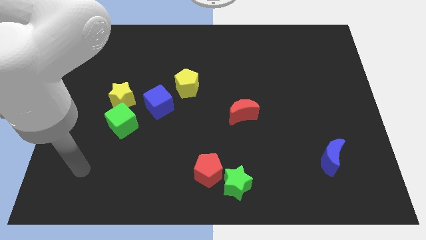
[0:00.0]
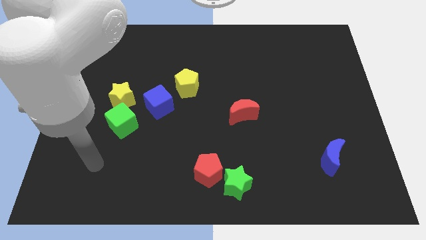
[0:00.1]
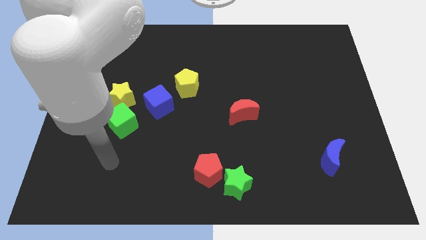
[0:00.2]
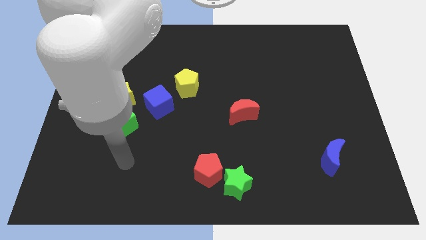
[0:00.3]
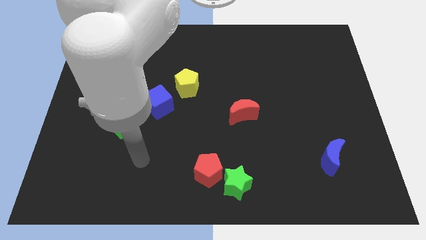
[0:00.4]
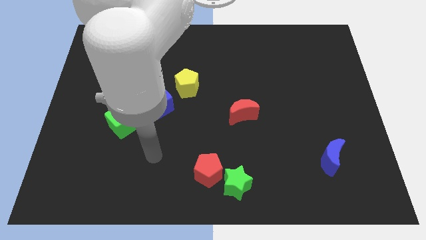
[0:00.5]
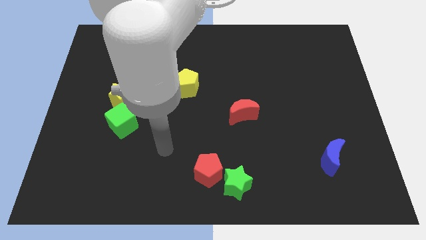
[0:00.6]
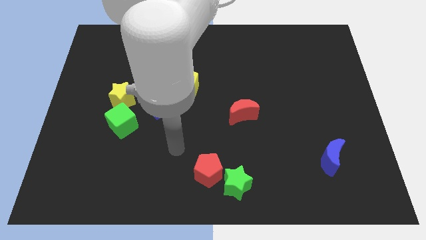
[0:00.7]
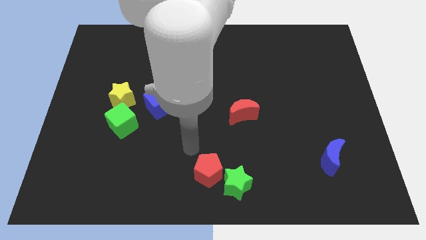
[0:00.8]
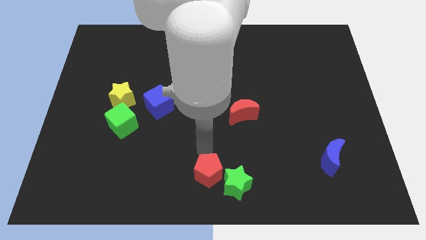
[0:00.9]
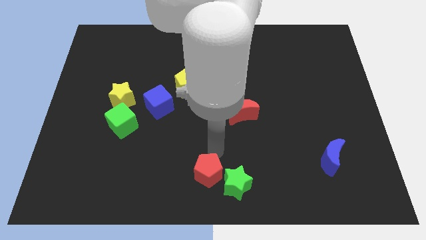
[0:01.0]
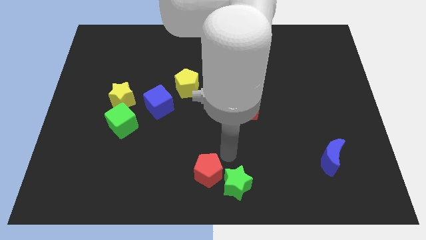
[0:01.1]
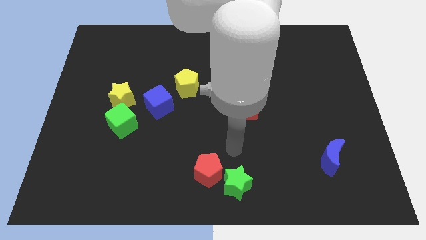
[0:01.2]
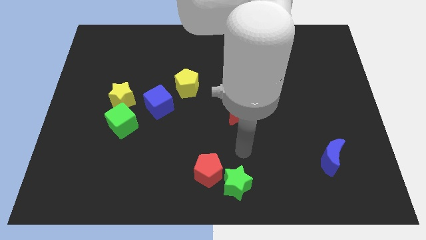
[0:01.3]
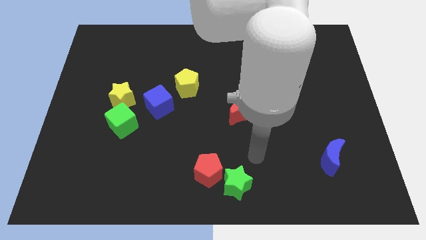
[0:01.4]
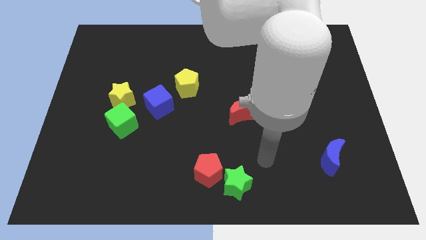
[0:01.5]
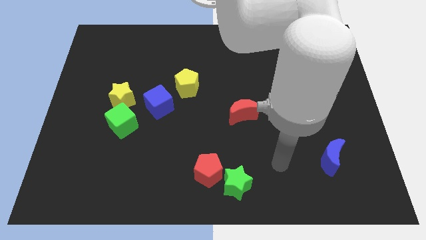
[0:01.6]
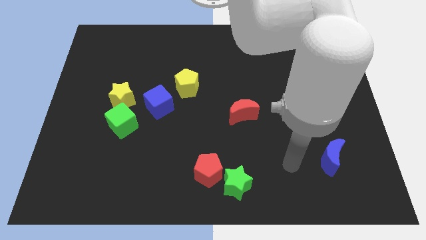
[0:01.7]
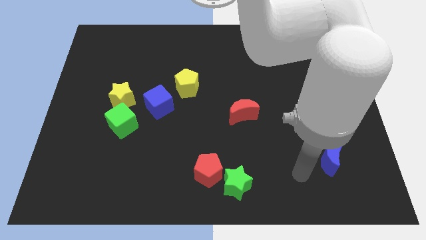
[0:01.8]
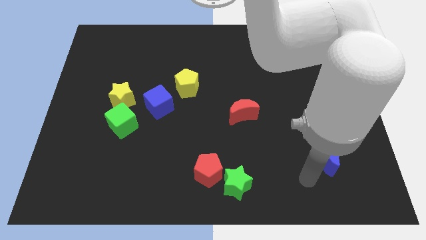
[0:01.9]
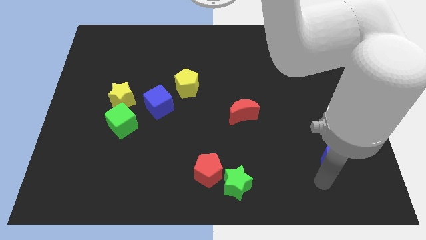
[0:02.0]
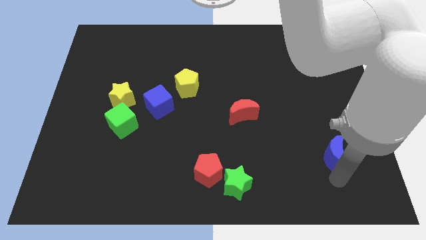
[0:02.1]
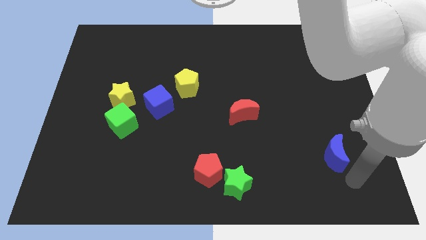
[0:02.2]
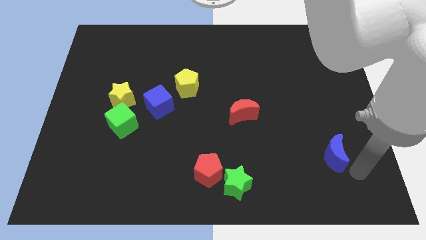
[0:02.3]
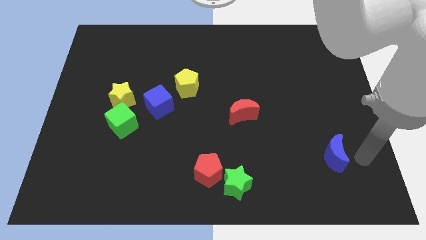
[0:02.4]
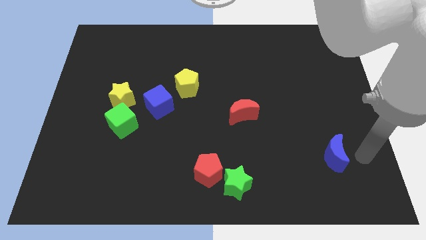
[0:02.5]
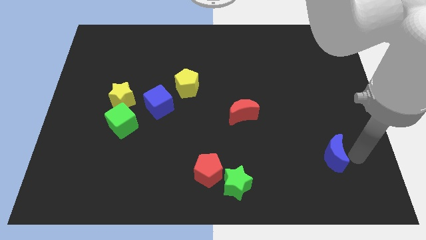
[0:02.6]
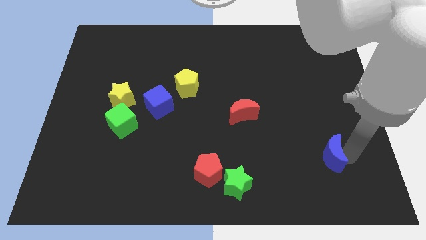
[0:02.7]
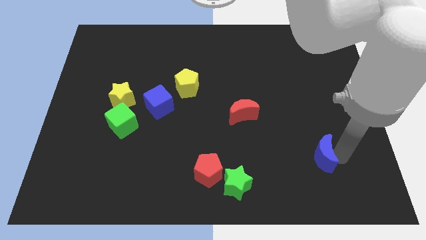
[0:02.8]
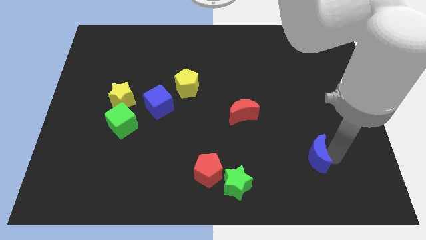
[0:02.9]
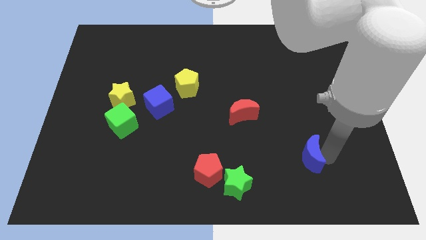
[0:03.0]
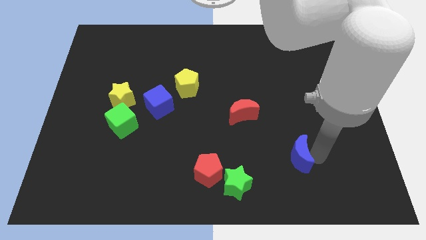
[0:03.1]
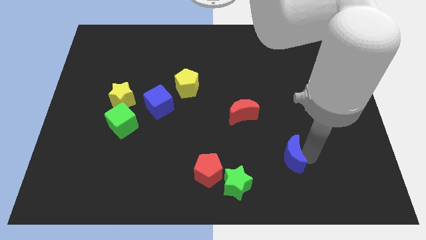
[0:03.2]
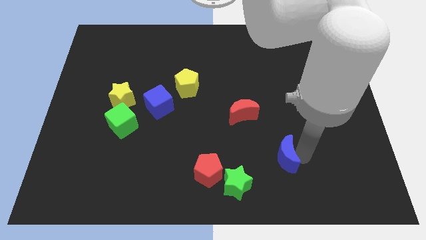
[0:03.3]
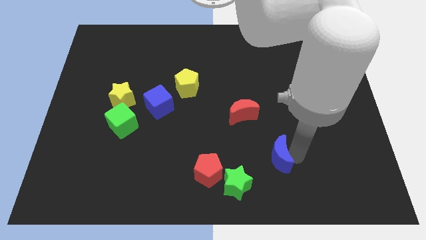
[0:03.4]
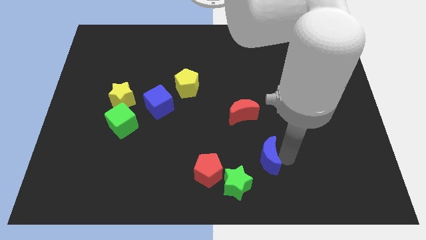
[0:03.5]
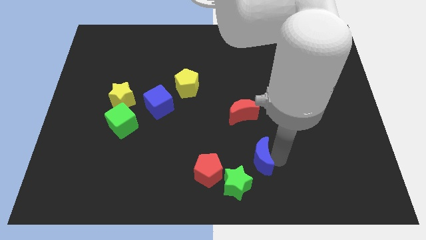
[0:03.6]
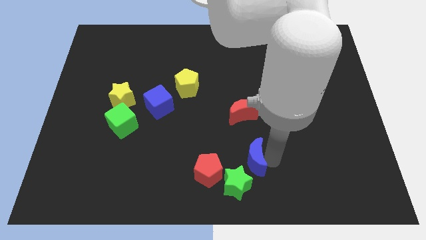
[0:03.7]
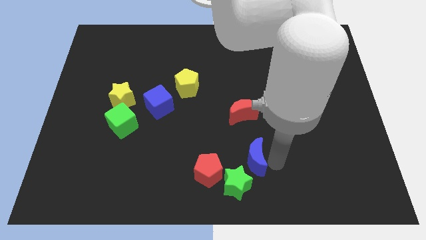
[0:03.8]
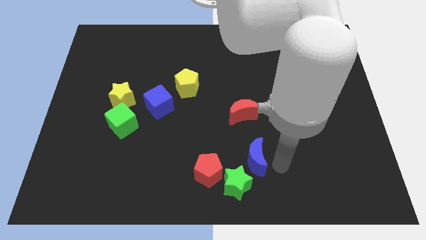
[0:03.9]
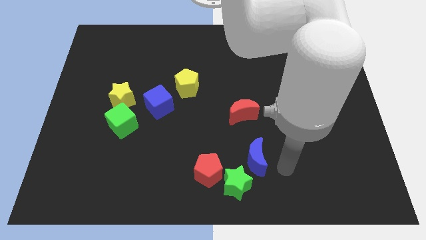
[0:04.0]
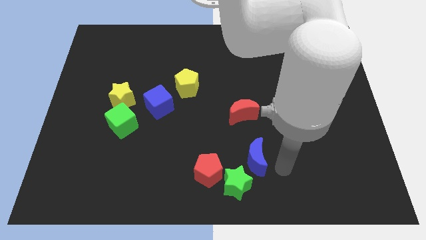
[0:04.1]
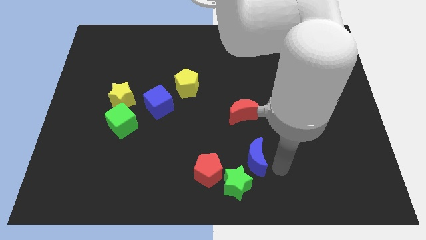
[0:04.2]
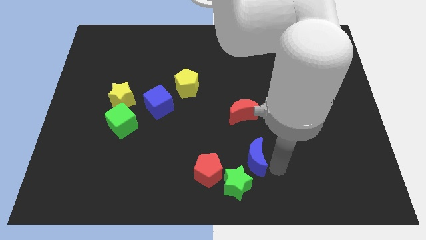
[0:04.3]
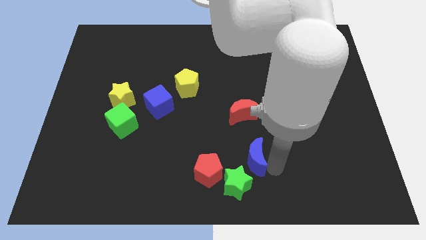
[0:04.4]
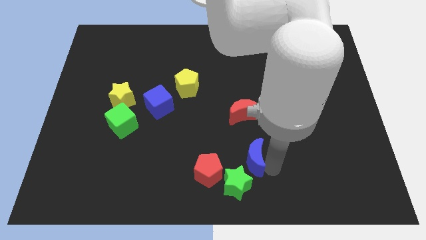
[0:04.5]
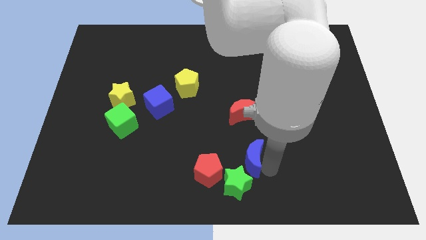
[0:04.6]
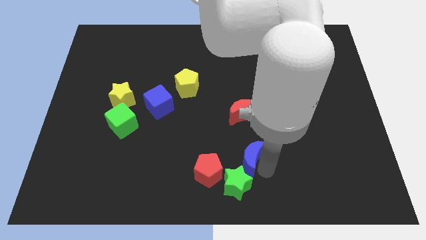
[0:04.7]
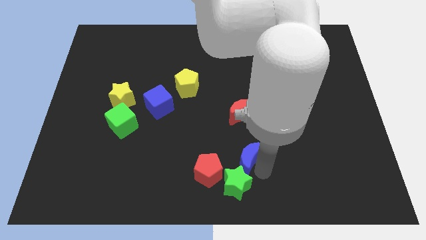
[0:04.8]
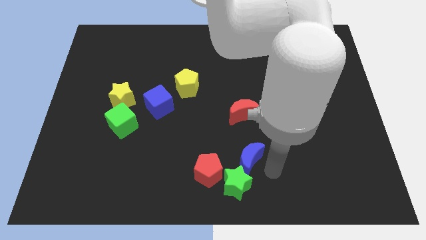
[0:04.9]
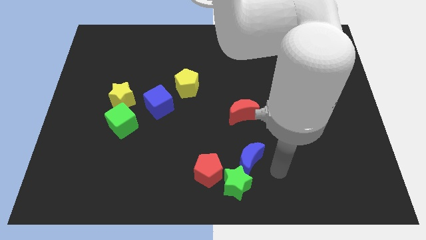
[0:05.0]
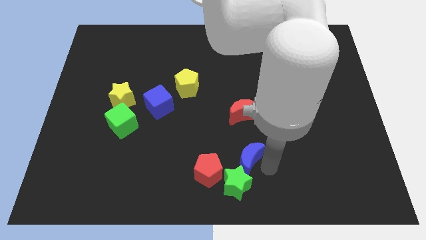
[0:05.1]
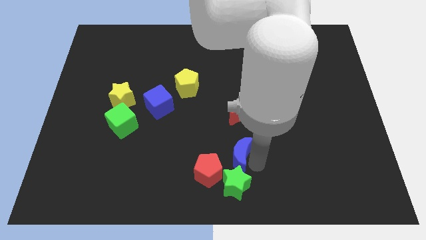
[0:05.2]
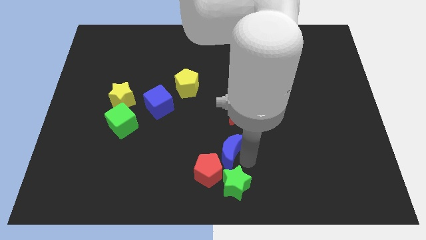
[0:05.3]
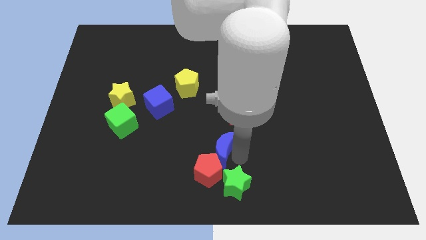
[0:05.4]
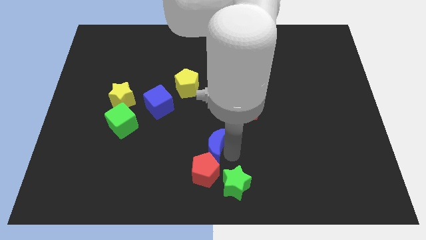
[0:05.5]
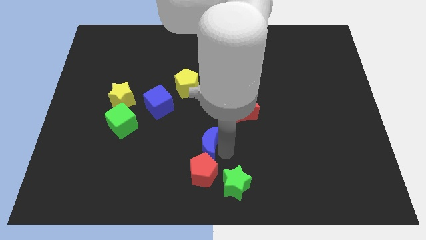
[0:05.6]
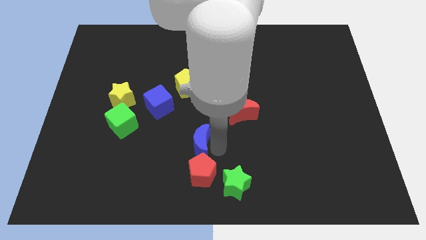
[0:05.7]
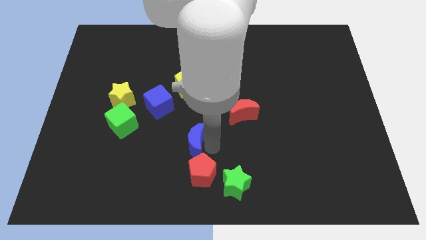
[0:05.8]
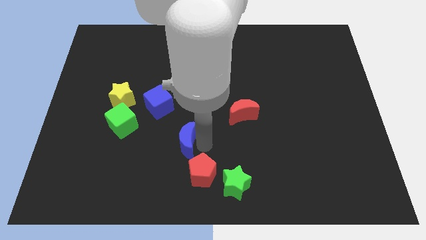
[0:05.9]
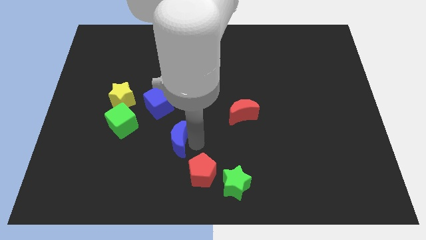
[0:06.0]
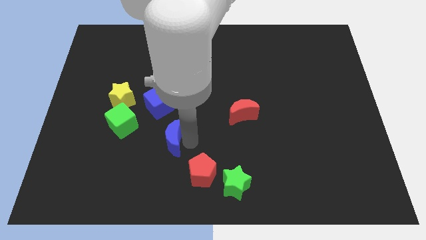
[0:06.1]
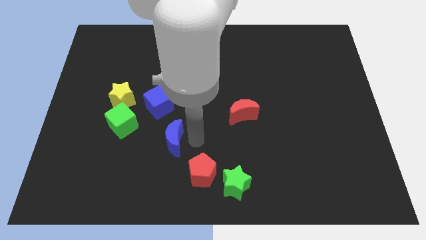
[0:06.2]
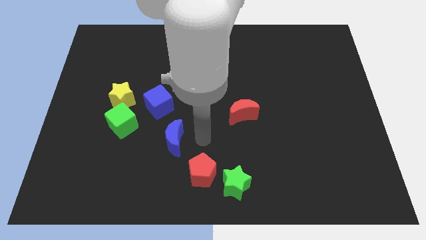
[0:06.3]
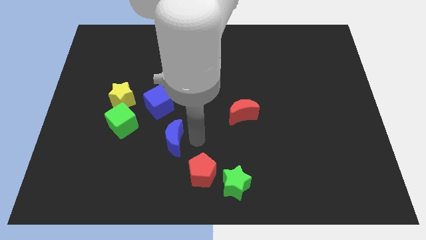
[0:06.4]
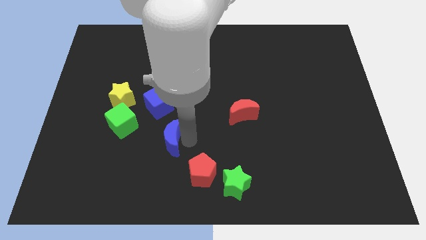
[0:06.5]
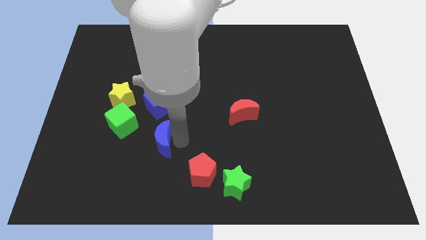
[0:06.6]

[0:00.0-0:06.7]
put the blue moon to the bottom right side of the green cube
